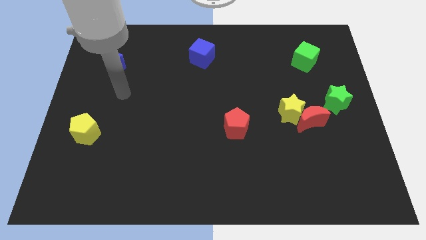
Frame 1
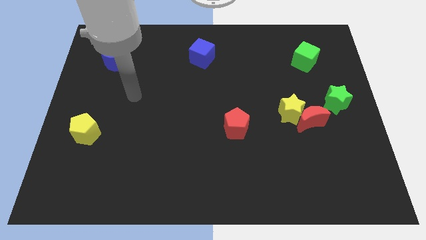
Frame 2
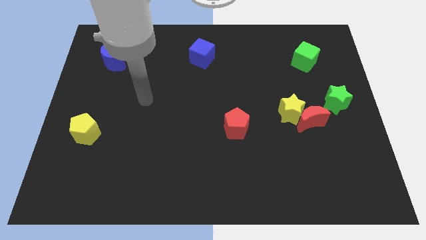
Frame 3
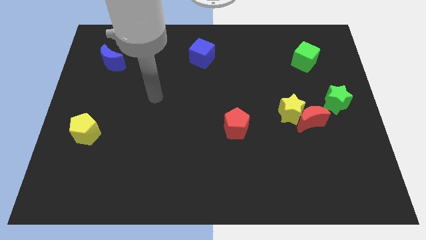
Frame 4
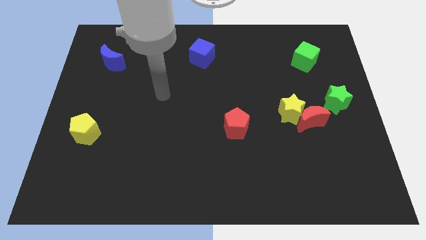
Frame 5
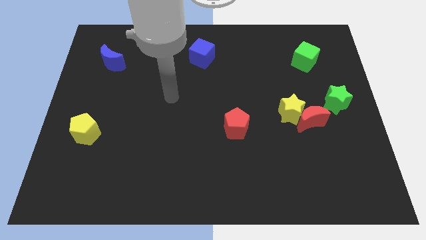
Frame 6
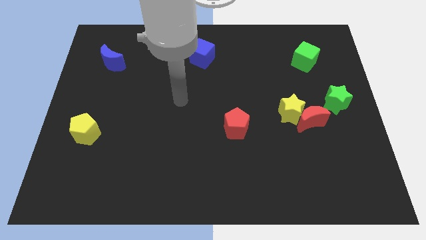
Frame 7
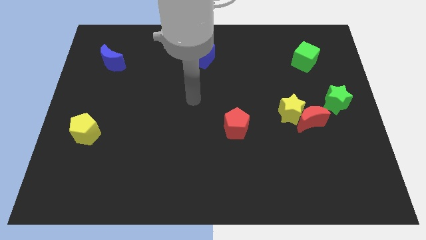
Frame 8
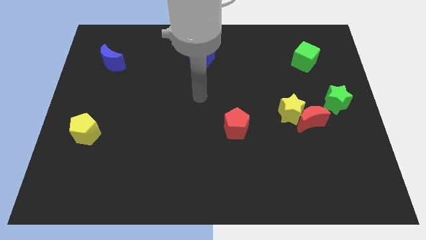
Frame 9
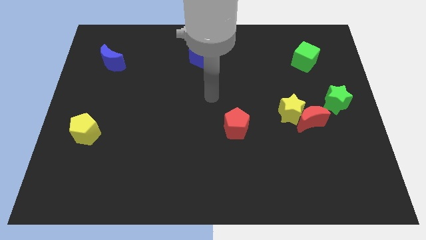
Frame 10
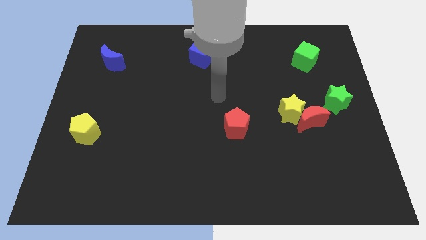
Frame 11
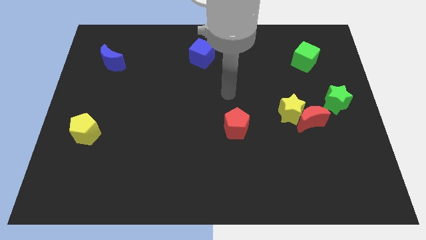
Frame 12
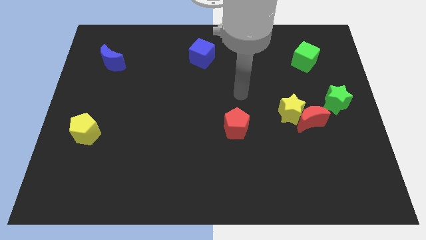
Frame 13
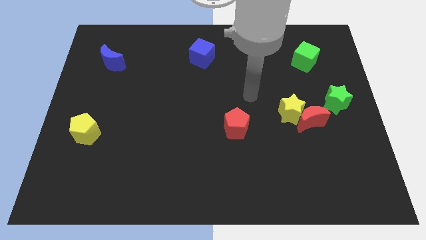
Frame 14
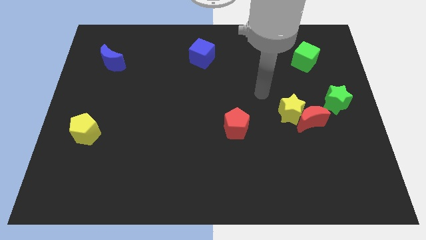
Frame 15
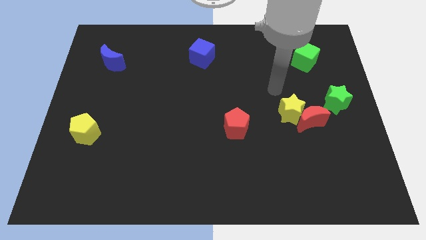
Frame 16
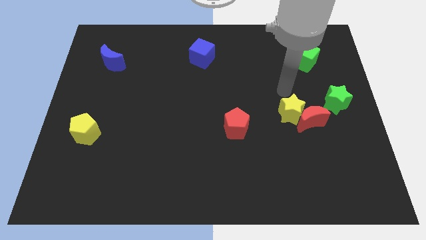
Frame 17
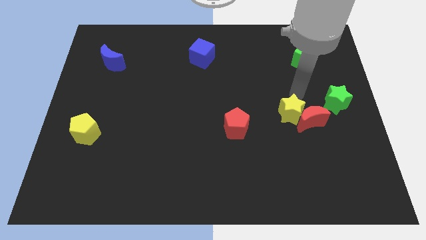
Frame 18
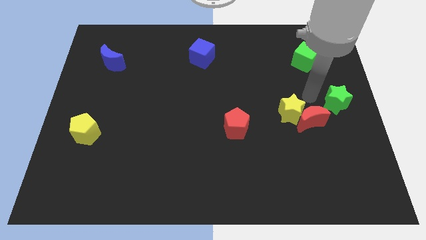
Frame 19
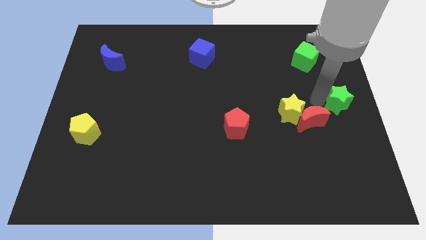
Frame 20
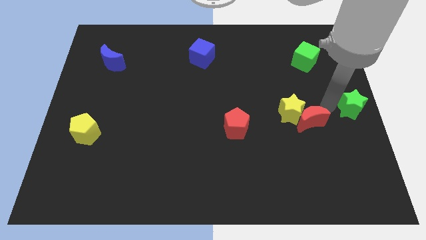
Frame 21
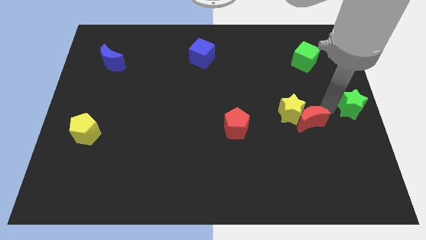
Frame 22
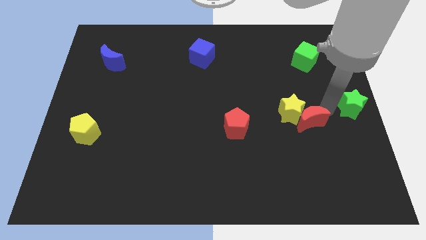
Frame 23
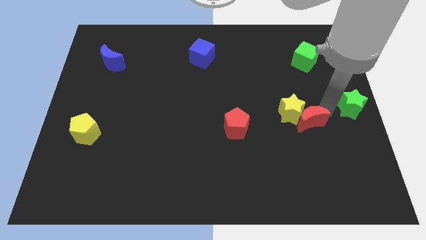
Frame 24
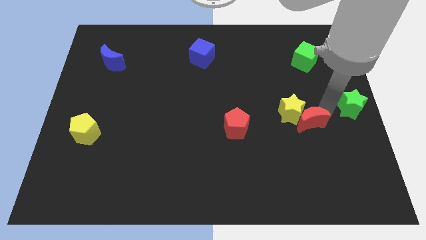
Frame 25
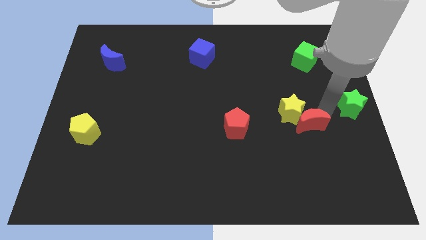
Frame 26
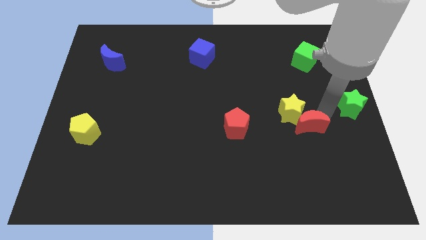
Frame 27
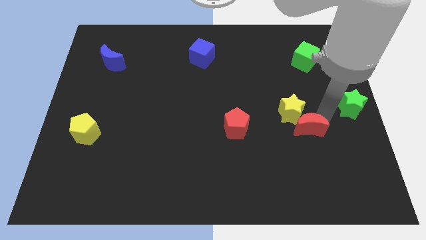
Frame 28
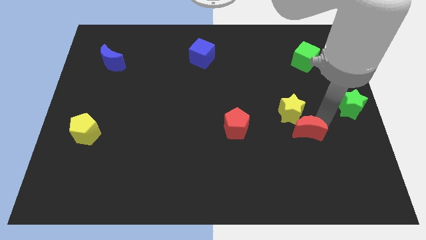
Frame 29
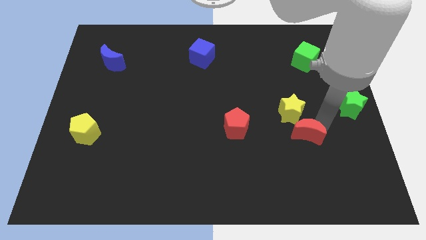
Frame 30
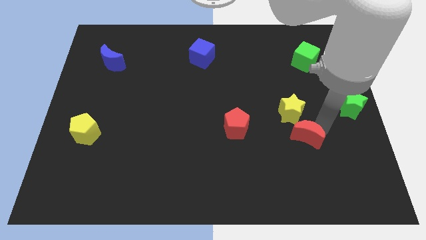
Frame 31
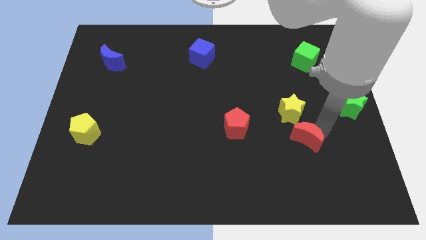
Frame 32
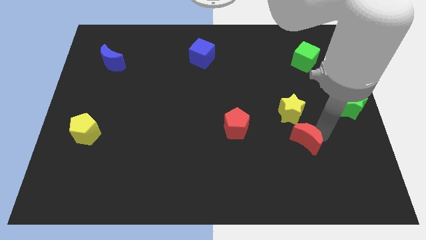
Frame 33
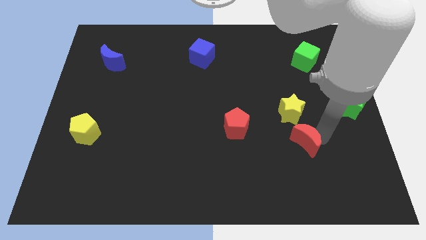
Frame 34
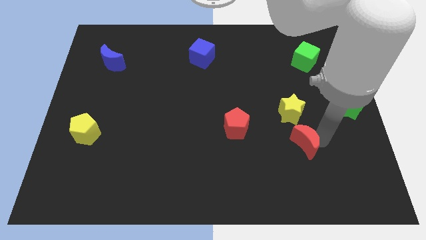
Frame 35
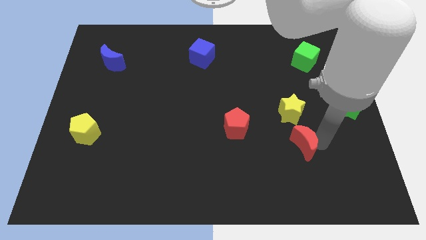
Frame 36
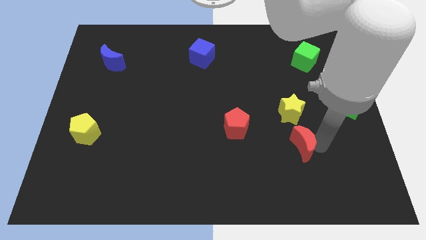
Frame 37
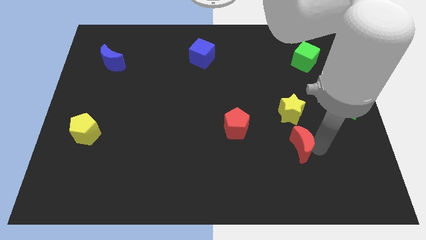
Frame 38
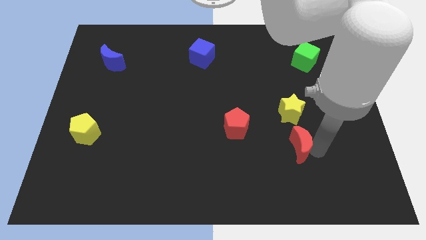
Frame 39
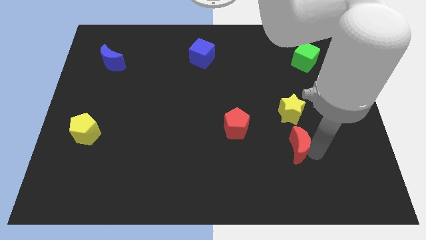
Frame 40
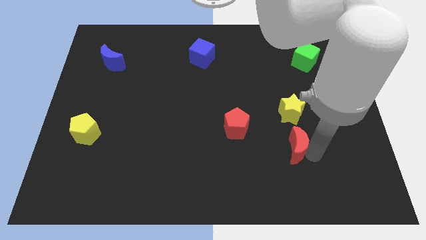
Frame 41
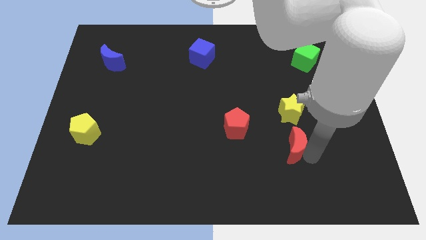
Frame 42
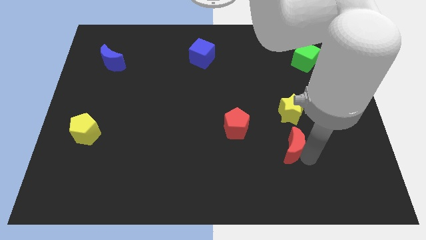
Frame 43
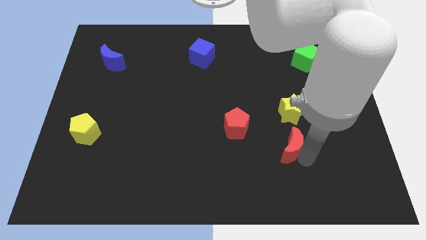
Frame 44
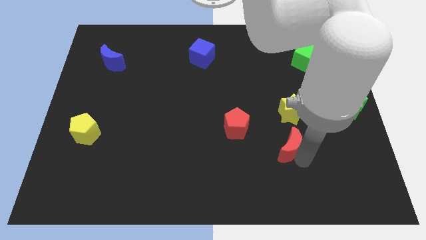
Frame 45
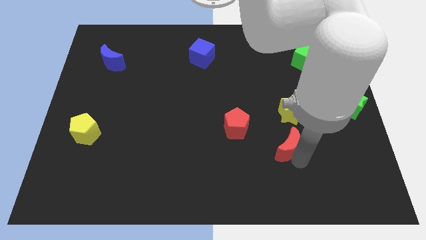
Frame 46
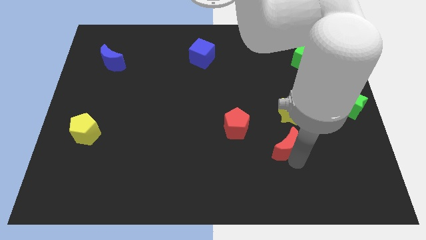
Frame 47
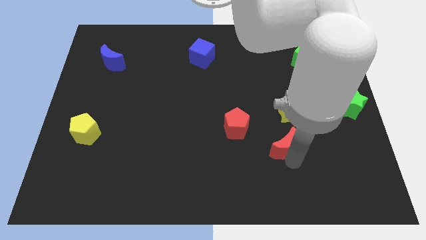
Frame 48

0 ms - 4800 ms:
slide the red moon to the bottom left of the yellow star

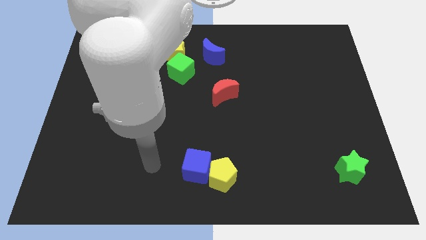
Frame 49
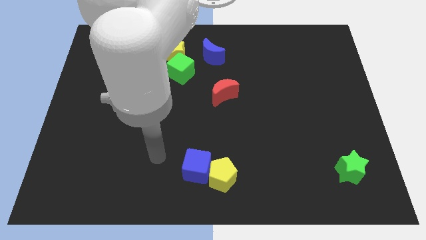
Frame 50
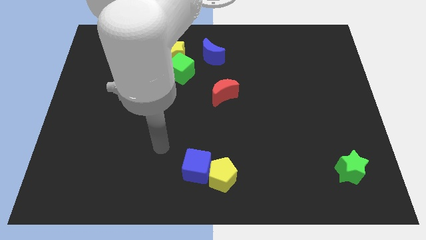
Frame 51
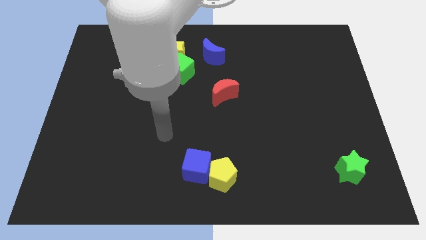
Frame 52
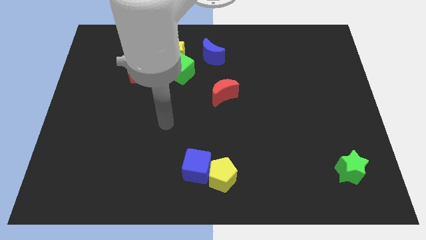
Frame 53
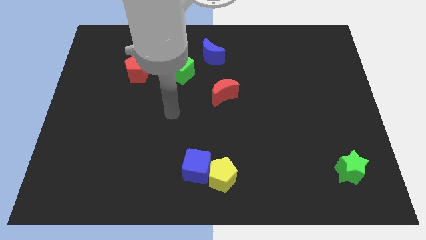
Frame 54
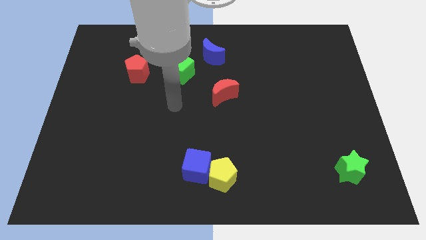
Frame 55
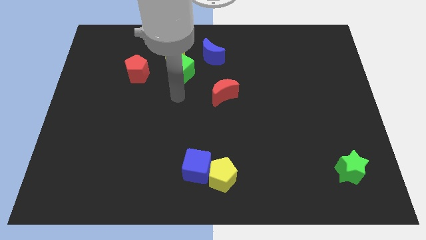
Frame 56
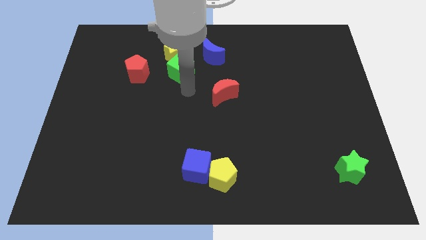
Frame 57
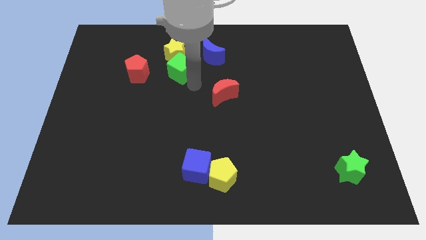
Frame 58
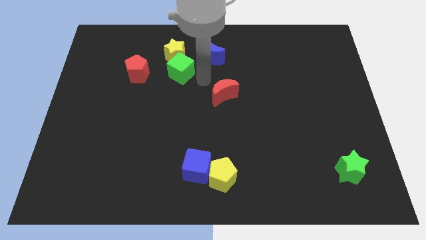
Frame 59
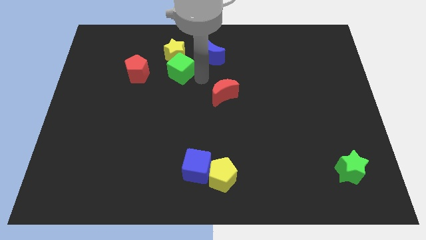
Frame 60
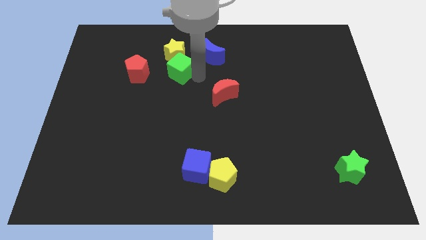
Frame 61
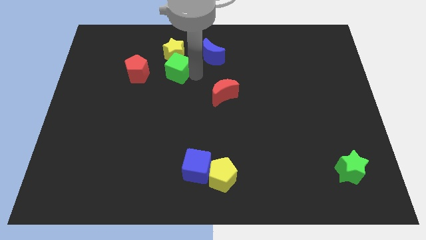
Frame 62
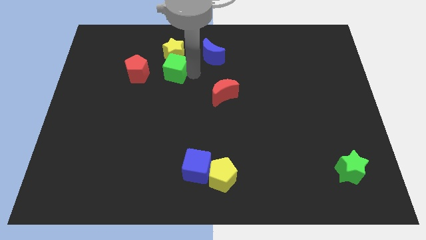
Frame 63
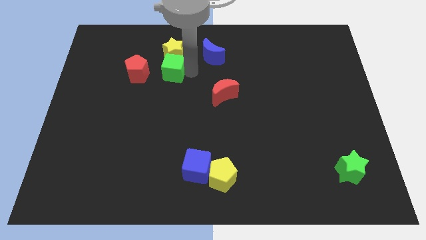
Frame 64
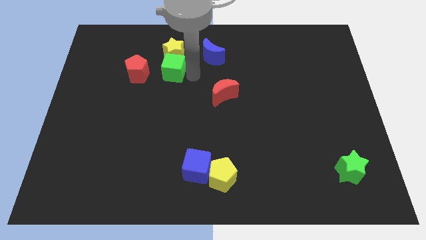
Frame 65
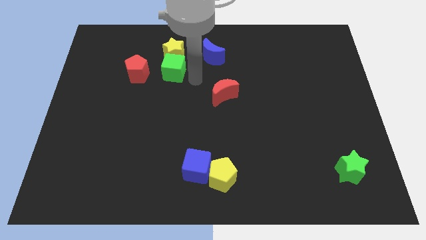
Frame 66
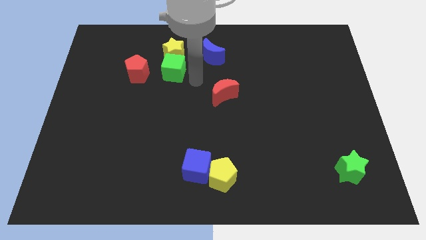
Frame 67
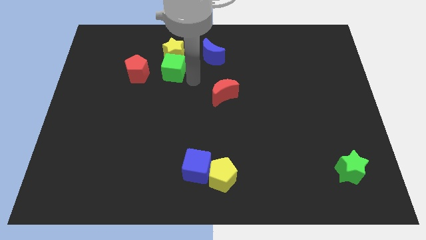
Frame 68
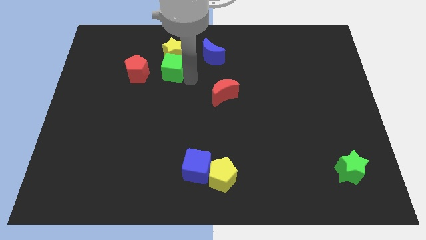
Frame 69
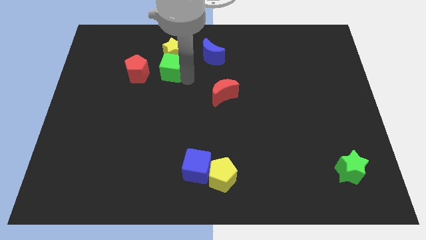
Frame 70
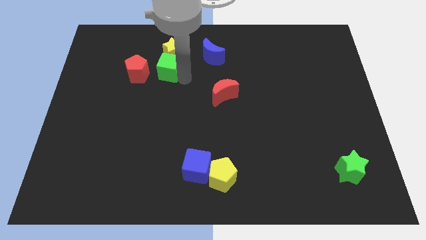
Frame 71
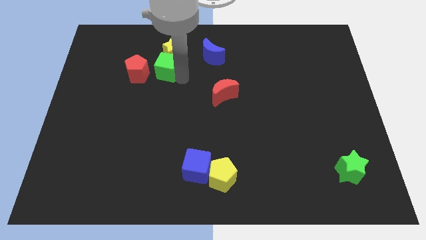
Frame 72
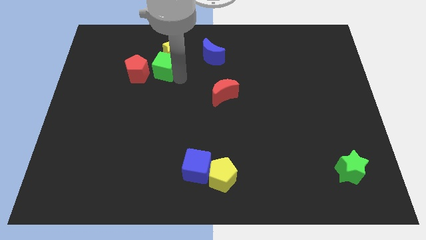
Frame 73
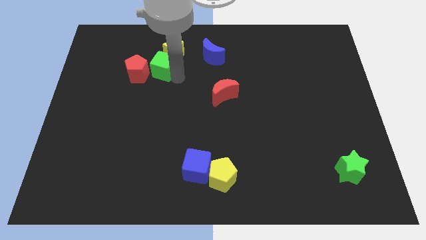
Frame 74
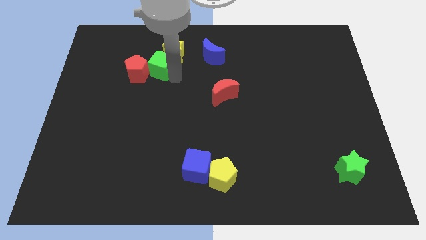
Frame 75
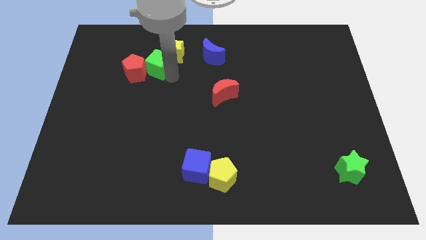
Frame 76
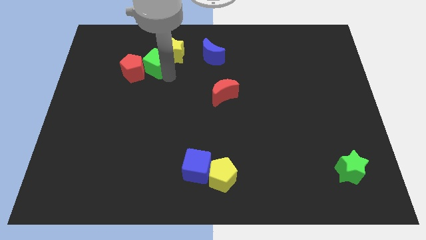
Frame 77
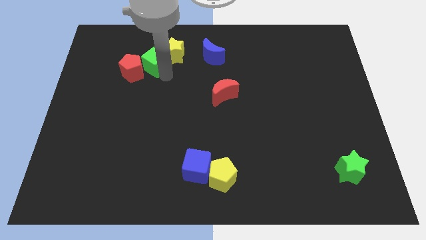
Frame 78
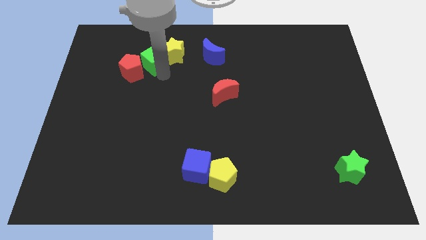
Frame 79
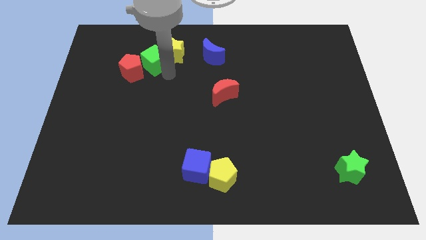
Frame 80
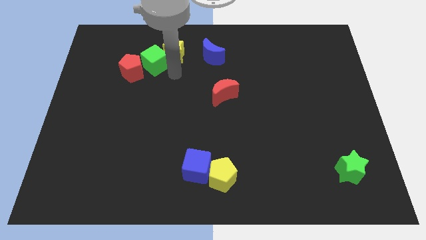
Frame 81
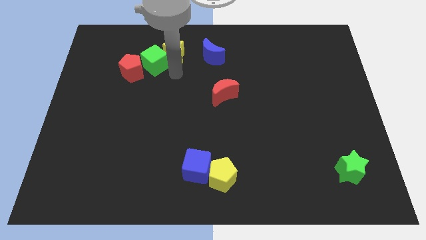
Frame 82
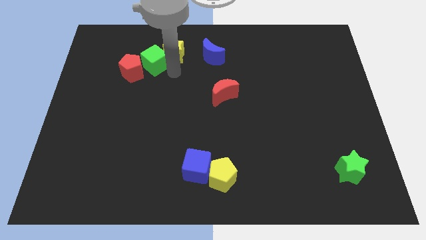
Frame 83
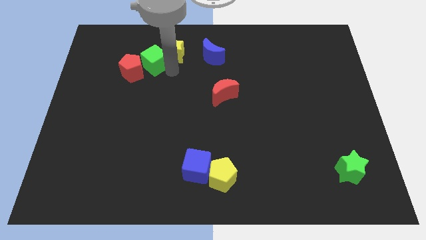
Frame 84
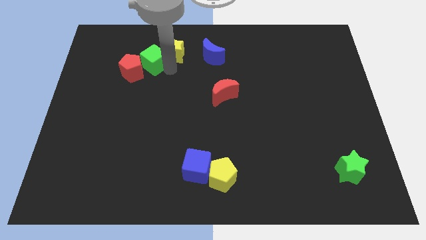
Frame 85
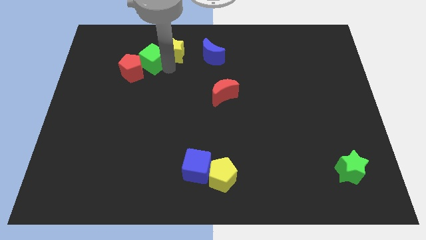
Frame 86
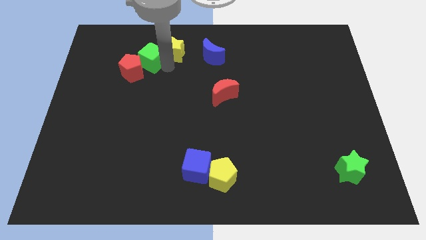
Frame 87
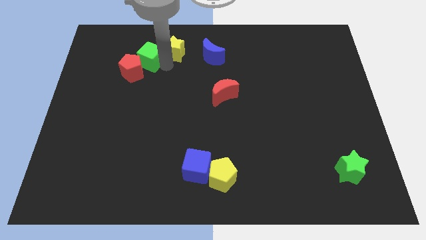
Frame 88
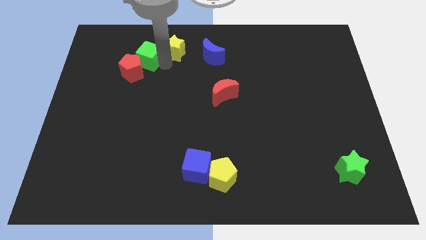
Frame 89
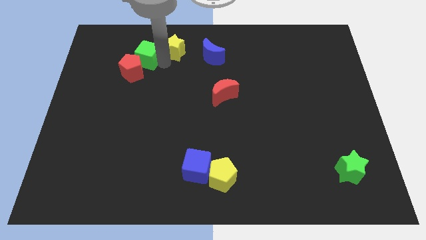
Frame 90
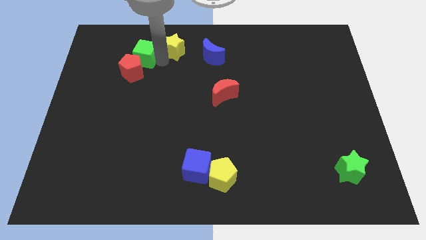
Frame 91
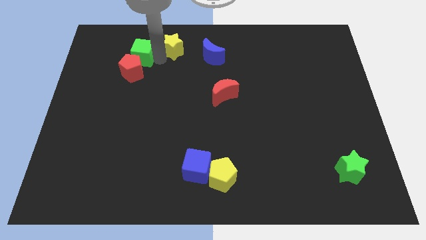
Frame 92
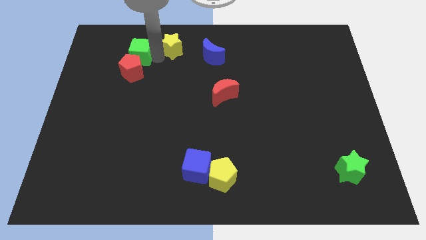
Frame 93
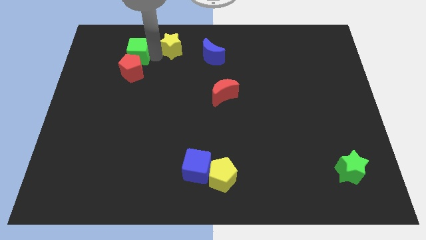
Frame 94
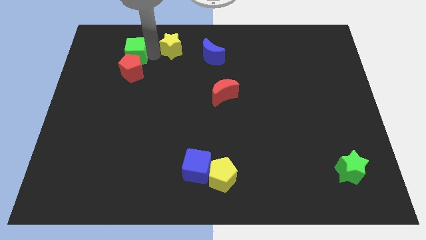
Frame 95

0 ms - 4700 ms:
slide the green cube to the top left side of the red pentagon
